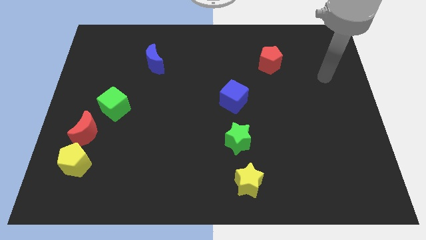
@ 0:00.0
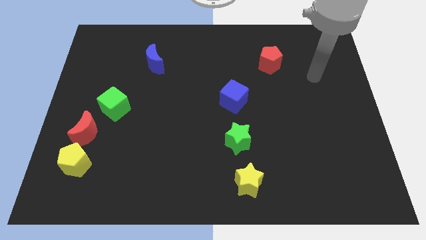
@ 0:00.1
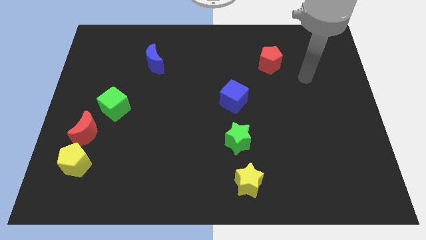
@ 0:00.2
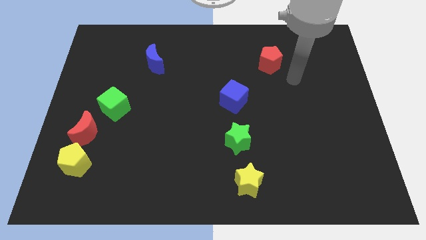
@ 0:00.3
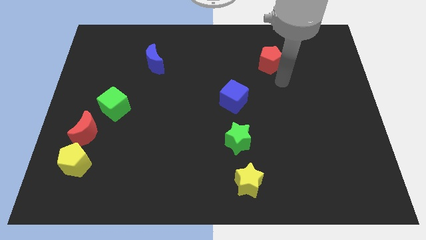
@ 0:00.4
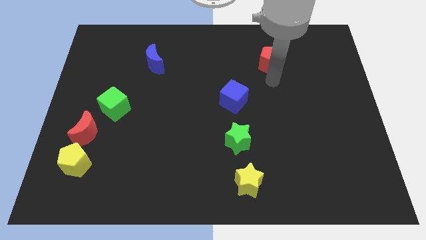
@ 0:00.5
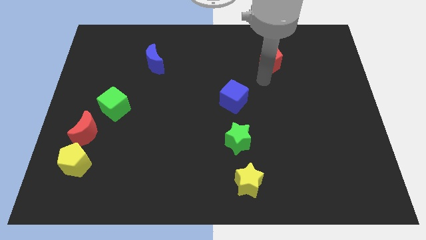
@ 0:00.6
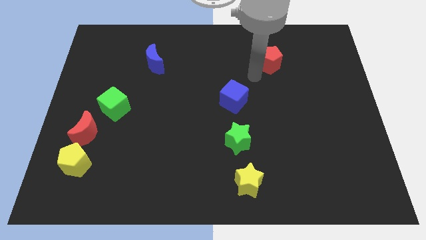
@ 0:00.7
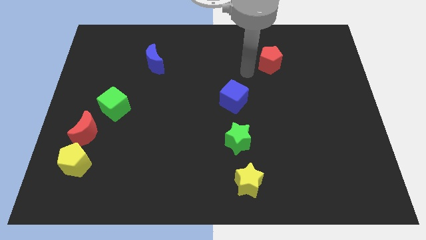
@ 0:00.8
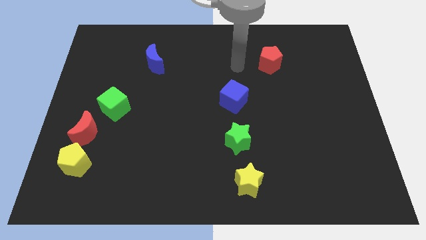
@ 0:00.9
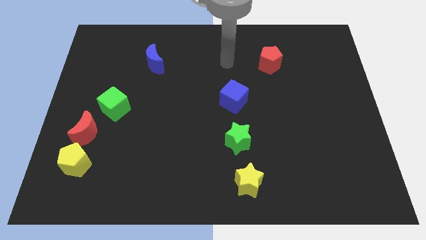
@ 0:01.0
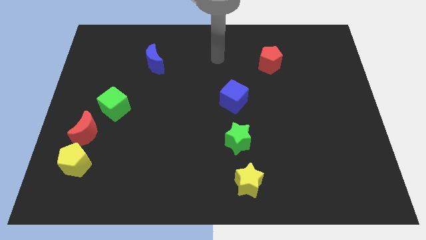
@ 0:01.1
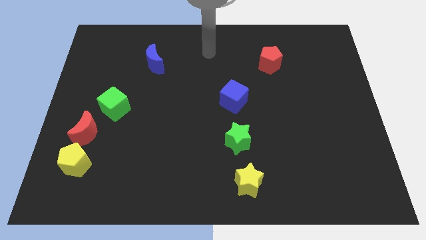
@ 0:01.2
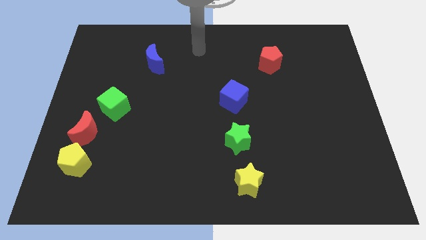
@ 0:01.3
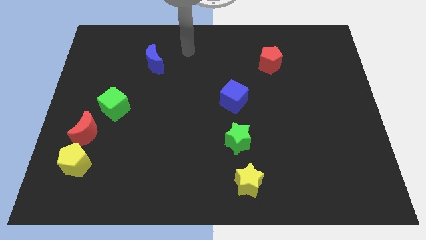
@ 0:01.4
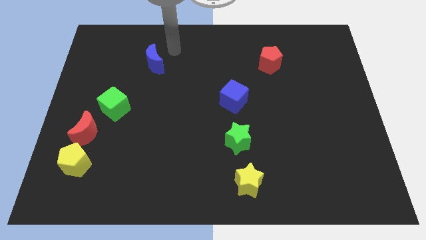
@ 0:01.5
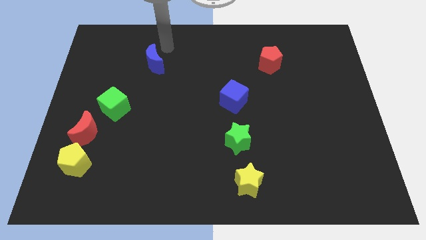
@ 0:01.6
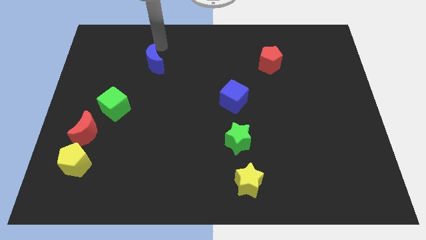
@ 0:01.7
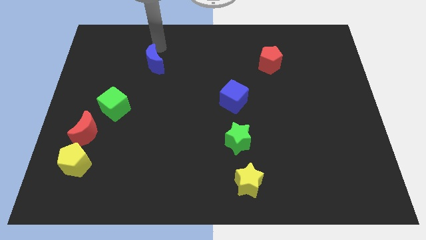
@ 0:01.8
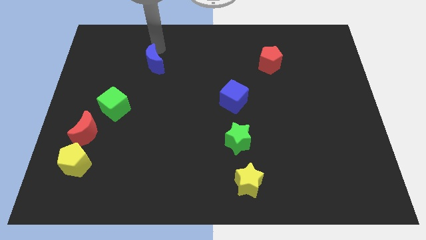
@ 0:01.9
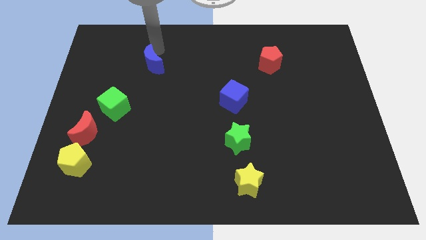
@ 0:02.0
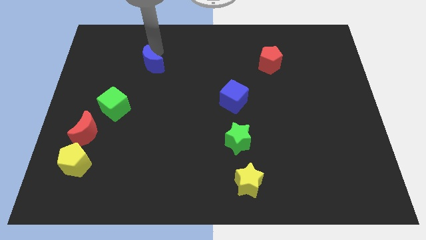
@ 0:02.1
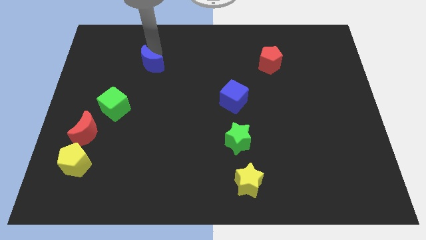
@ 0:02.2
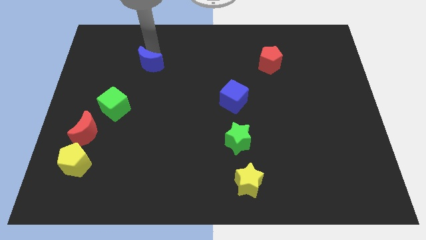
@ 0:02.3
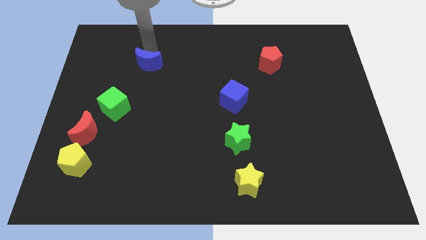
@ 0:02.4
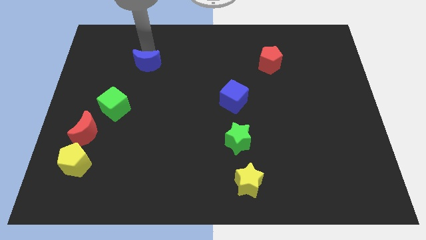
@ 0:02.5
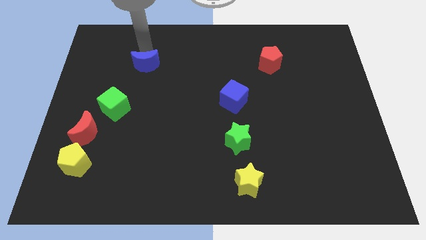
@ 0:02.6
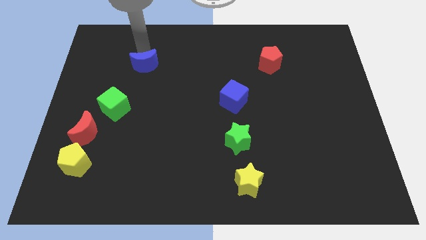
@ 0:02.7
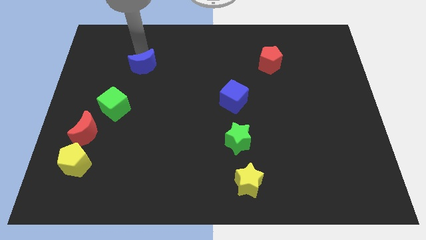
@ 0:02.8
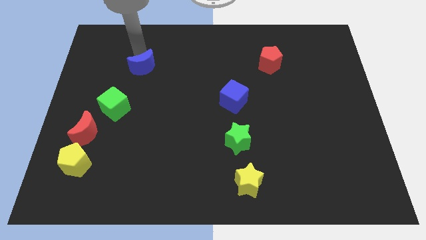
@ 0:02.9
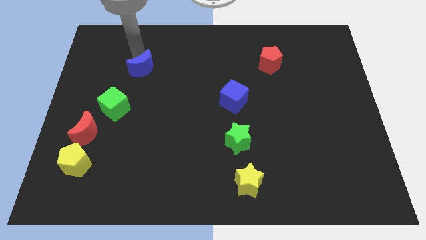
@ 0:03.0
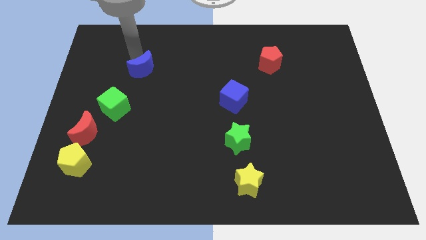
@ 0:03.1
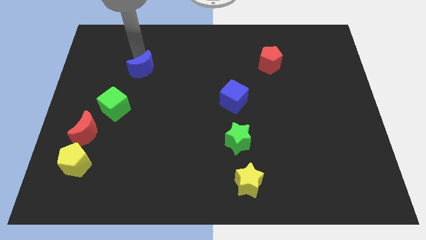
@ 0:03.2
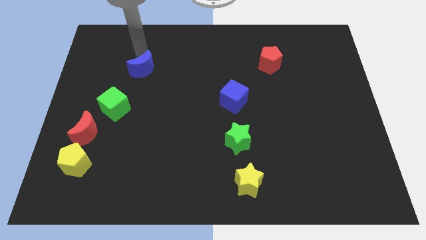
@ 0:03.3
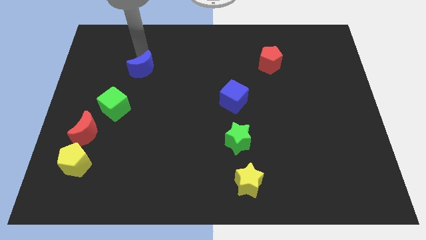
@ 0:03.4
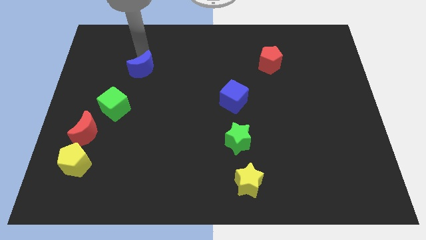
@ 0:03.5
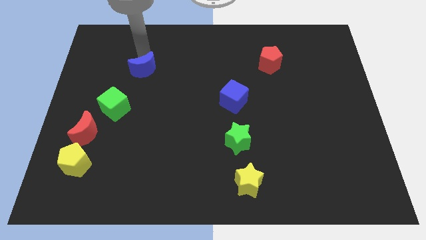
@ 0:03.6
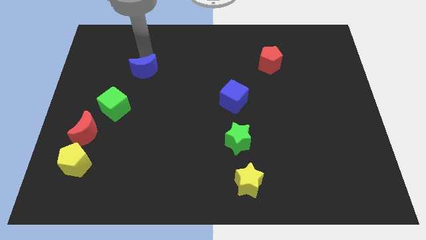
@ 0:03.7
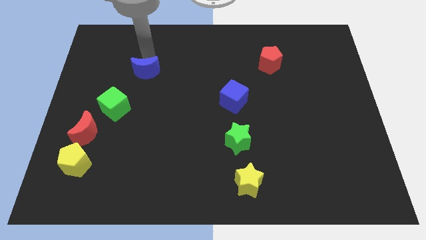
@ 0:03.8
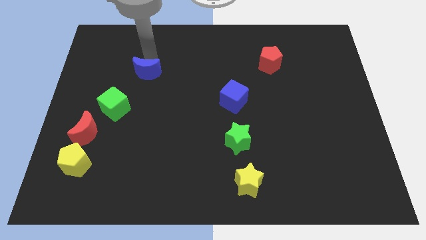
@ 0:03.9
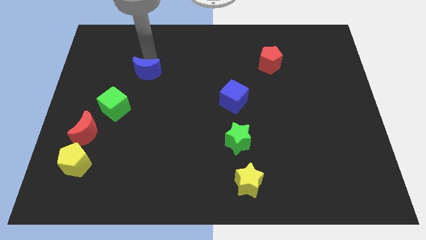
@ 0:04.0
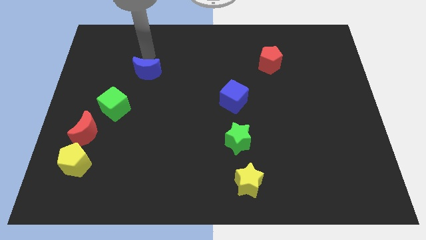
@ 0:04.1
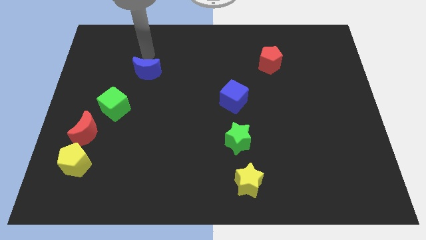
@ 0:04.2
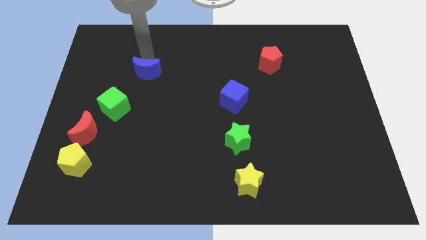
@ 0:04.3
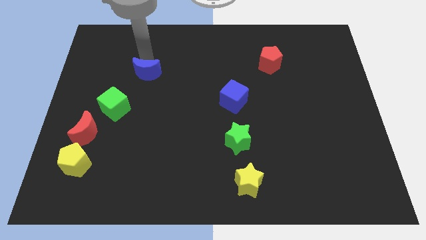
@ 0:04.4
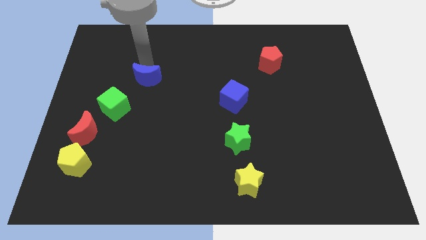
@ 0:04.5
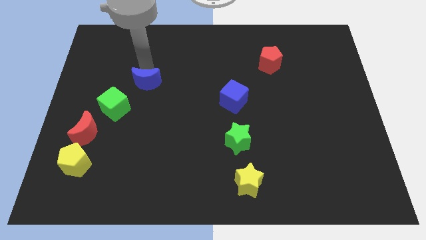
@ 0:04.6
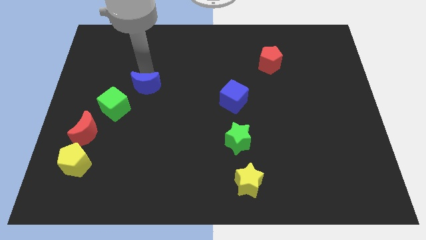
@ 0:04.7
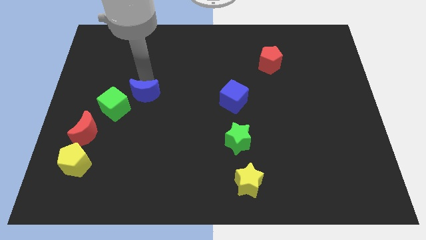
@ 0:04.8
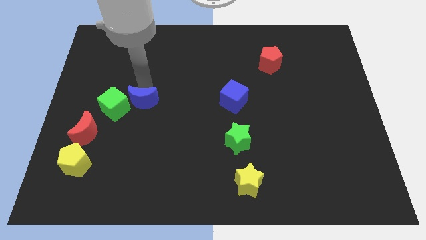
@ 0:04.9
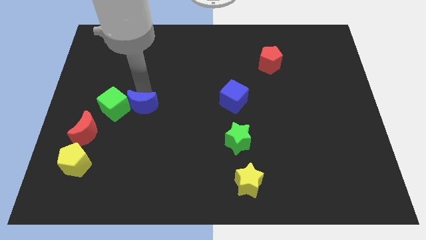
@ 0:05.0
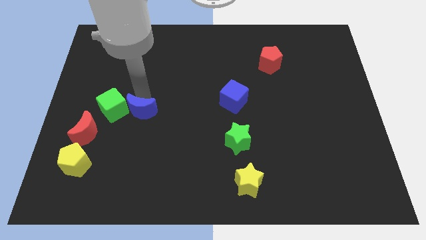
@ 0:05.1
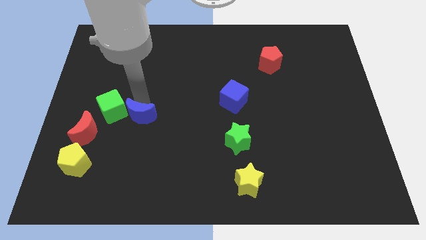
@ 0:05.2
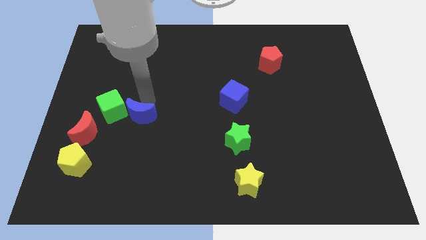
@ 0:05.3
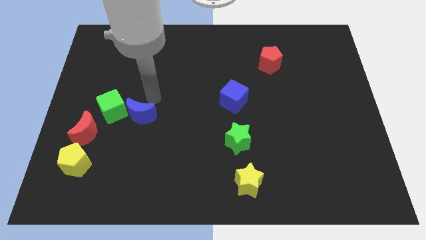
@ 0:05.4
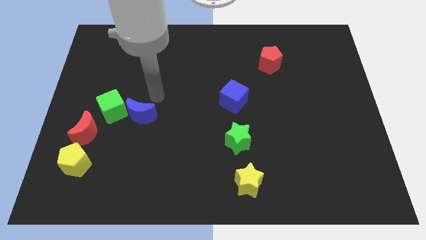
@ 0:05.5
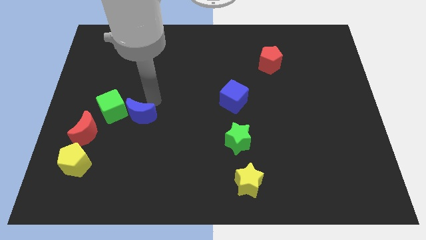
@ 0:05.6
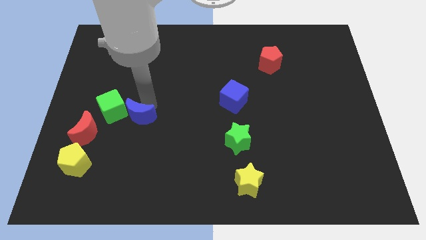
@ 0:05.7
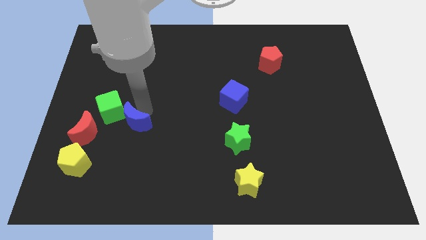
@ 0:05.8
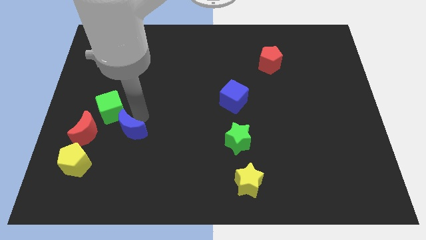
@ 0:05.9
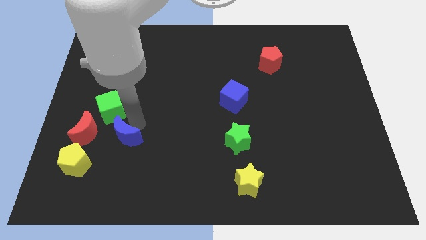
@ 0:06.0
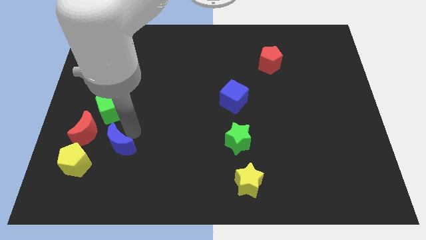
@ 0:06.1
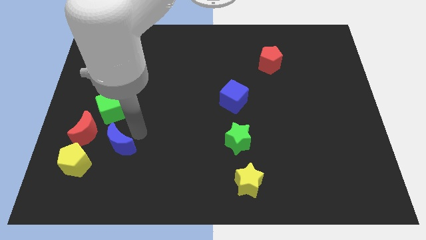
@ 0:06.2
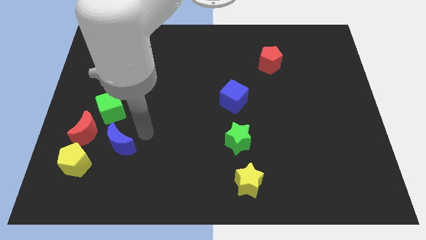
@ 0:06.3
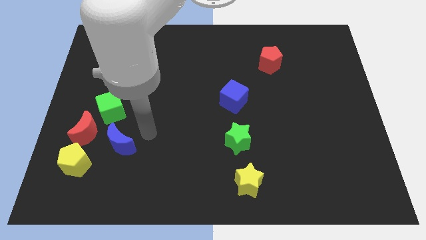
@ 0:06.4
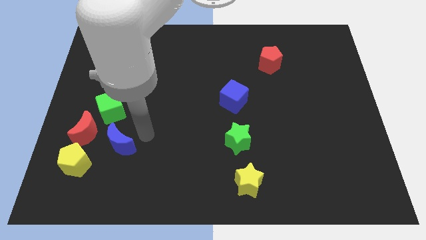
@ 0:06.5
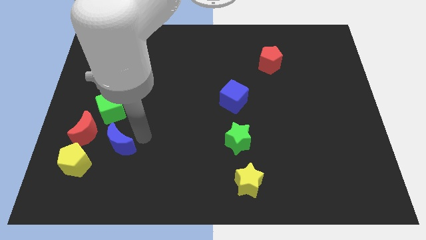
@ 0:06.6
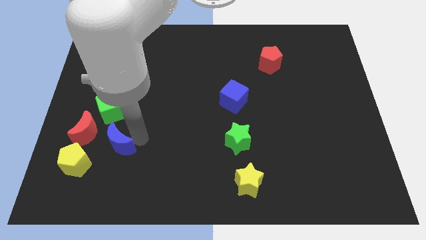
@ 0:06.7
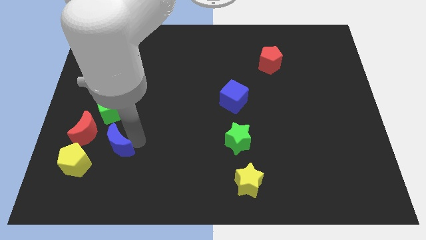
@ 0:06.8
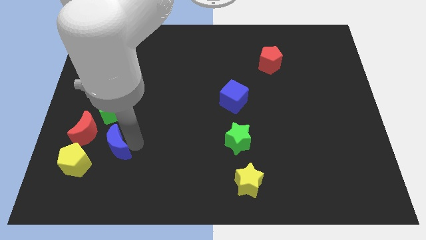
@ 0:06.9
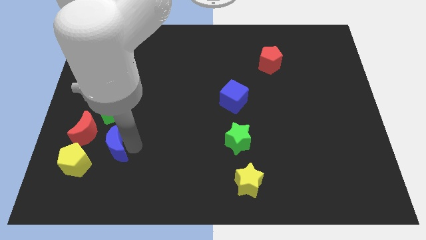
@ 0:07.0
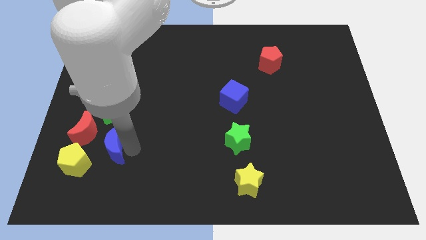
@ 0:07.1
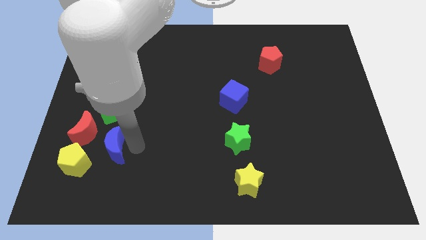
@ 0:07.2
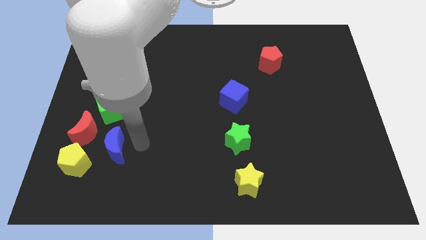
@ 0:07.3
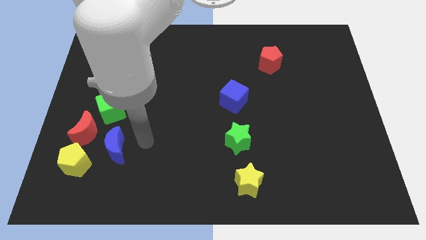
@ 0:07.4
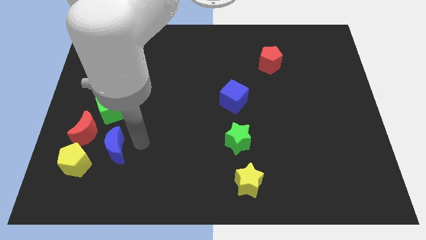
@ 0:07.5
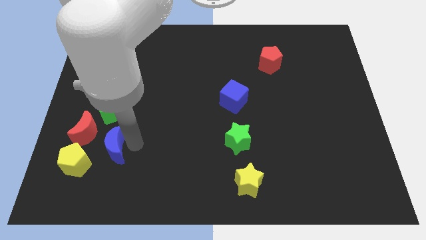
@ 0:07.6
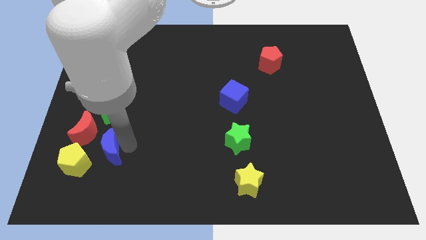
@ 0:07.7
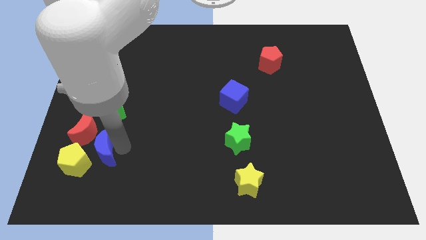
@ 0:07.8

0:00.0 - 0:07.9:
slide the blue moon towards the yellow pentagon
